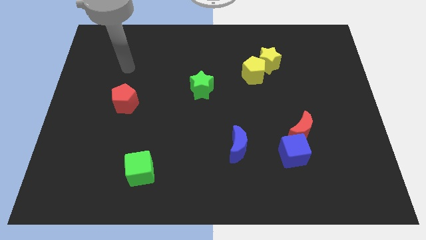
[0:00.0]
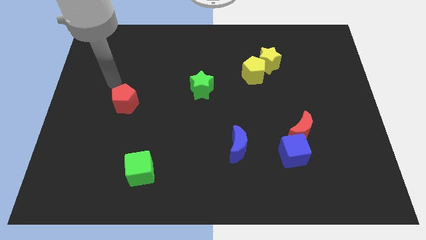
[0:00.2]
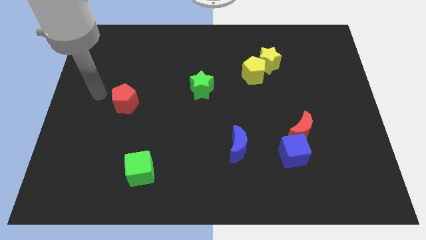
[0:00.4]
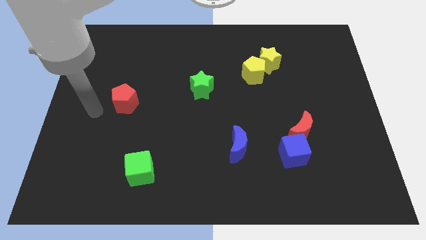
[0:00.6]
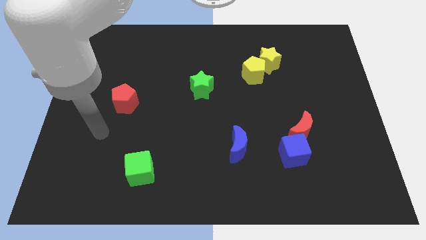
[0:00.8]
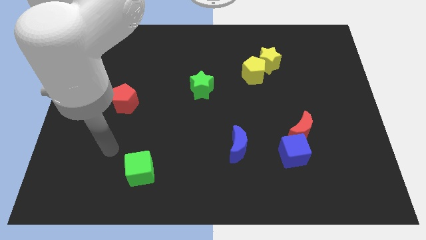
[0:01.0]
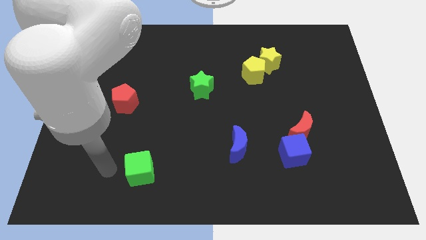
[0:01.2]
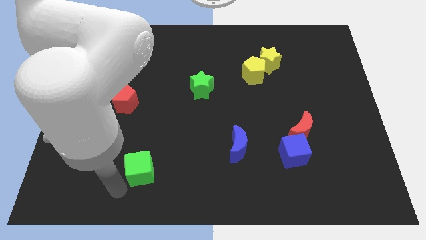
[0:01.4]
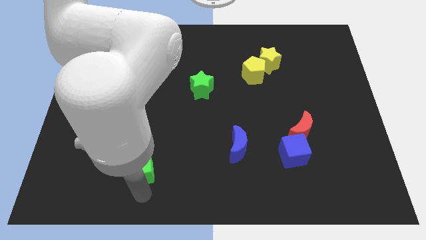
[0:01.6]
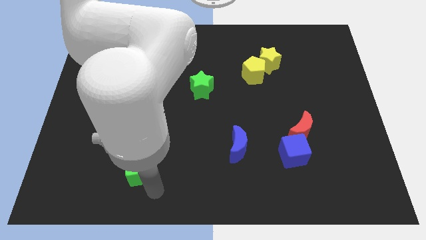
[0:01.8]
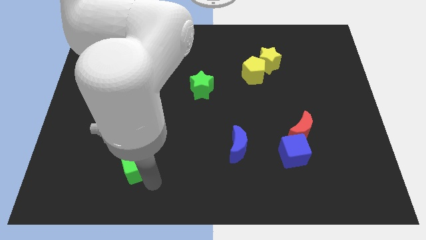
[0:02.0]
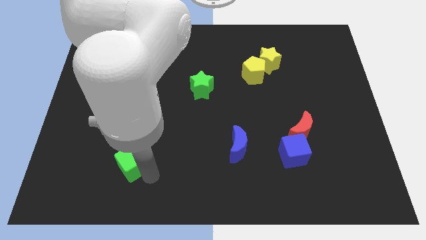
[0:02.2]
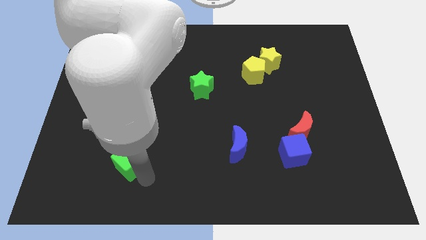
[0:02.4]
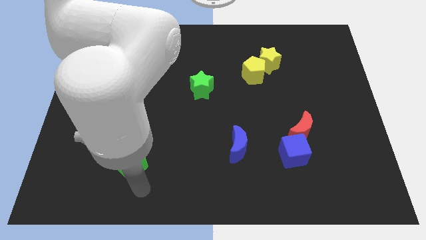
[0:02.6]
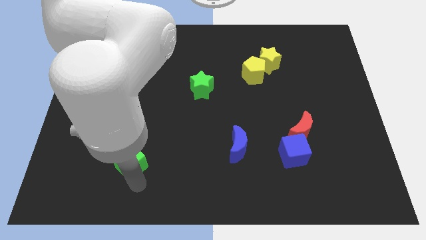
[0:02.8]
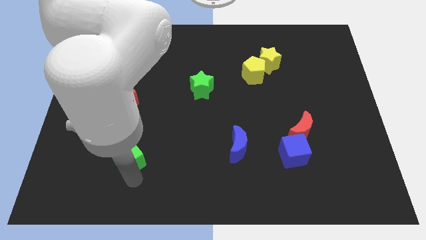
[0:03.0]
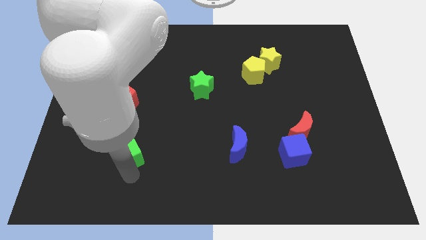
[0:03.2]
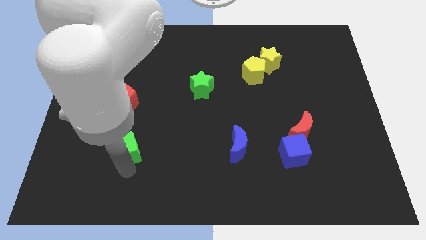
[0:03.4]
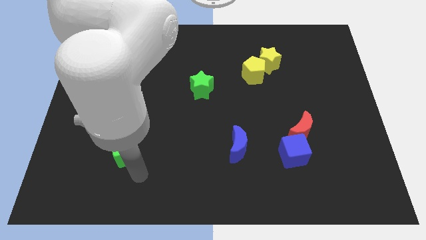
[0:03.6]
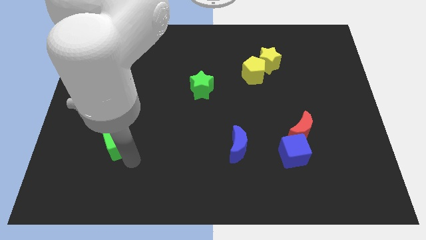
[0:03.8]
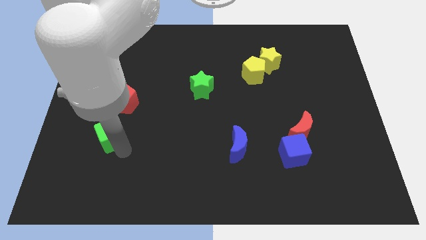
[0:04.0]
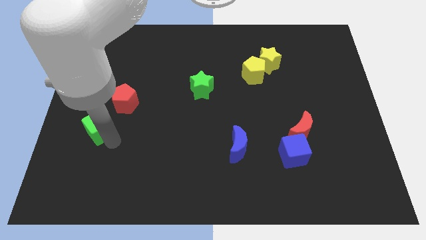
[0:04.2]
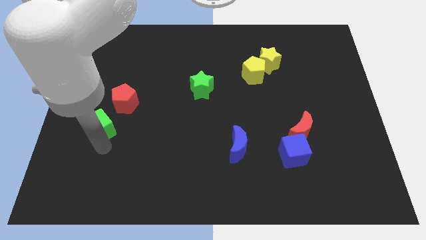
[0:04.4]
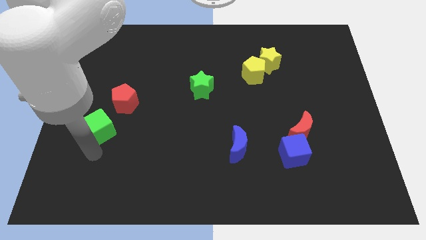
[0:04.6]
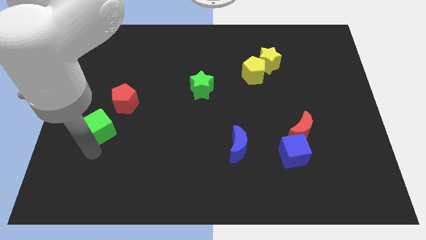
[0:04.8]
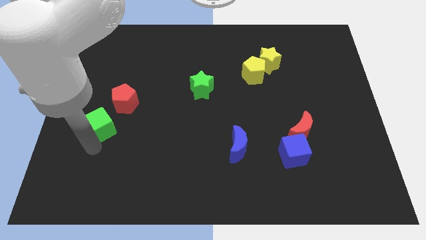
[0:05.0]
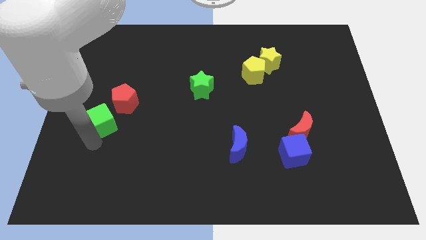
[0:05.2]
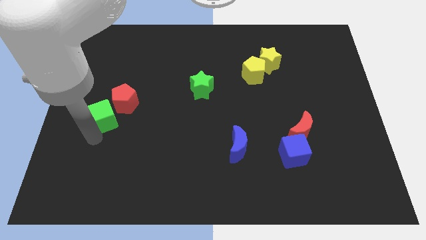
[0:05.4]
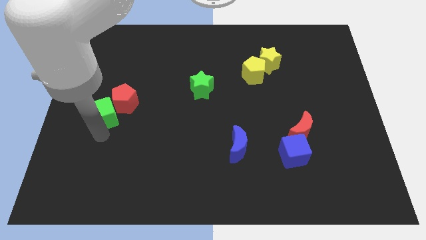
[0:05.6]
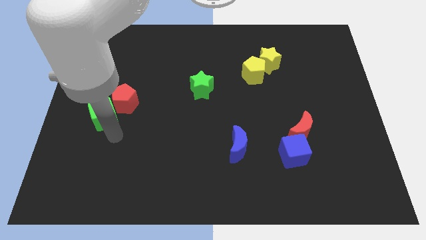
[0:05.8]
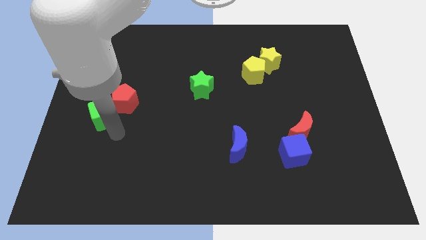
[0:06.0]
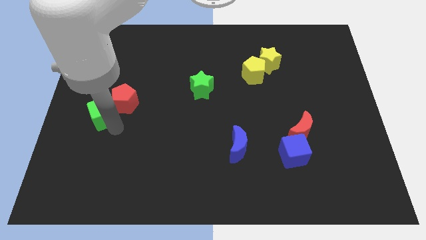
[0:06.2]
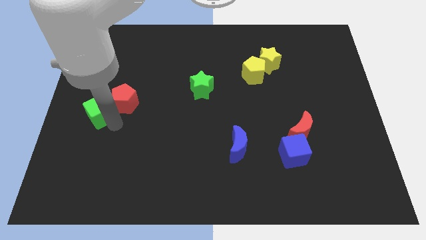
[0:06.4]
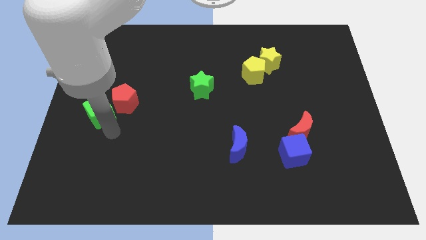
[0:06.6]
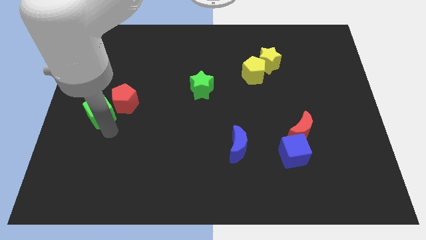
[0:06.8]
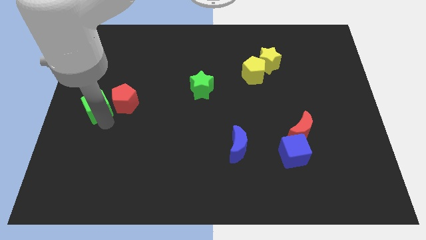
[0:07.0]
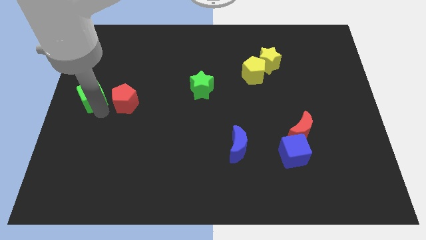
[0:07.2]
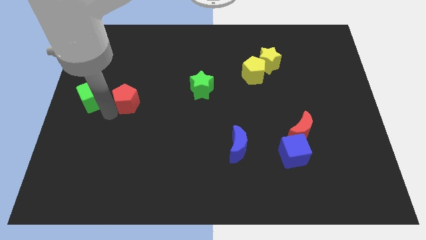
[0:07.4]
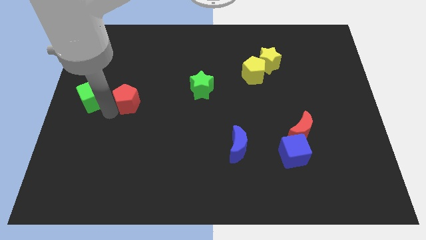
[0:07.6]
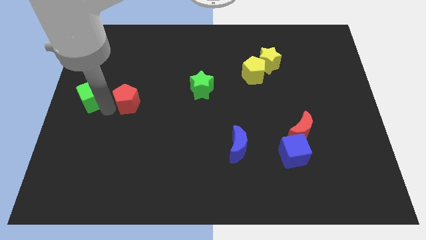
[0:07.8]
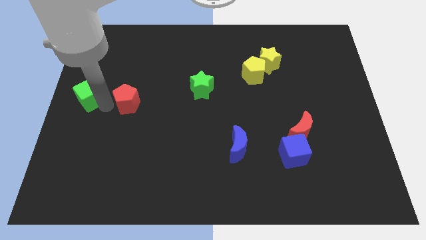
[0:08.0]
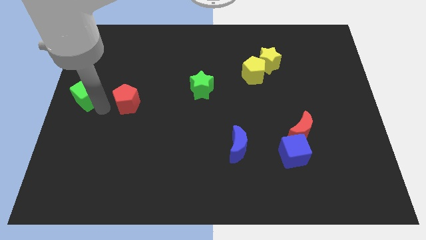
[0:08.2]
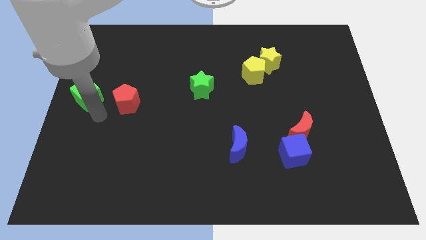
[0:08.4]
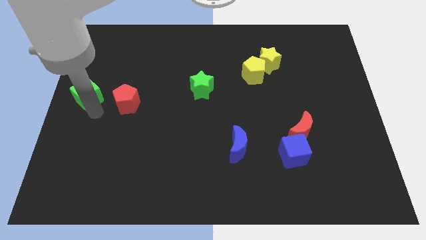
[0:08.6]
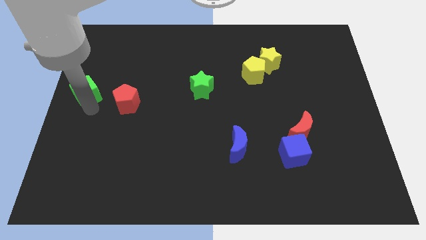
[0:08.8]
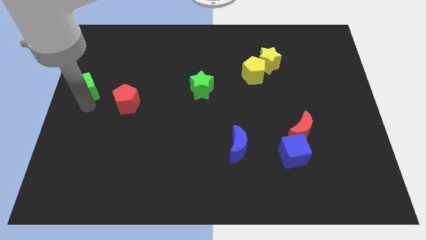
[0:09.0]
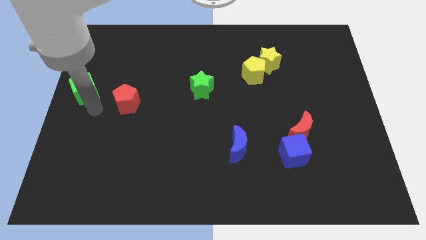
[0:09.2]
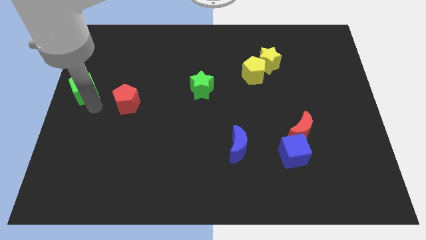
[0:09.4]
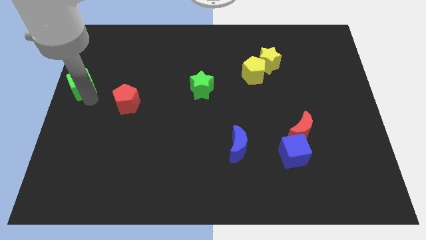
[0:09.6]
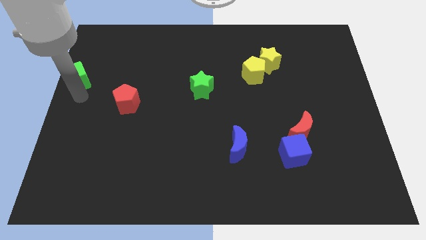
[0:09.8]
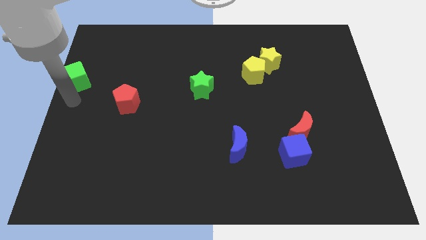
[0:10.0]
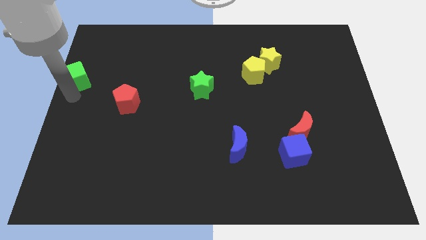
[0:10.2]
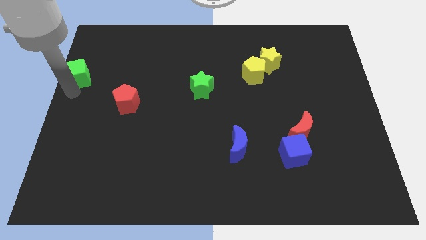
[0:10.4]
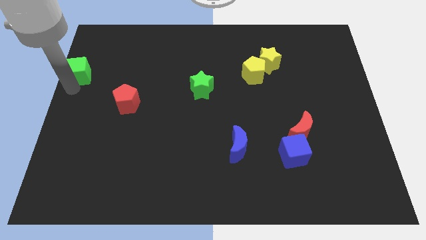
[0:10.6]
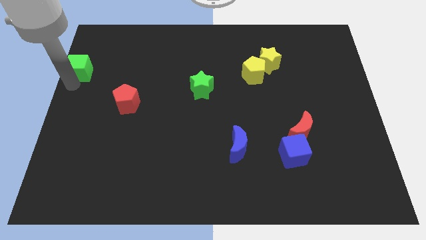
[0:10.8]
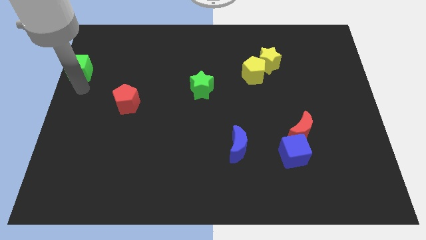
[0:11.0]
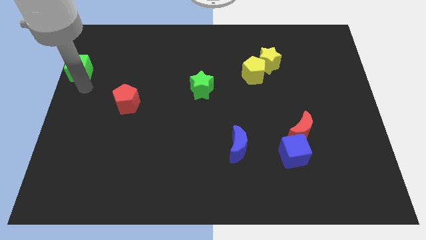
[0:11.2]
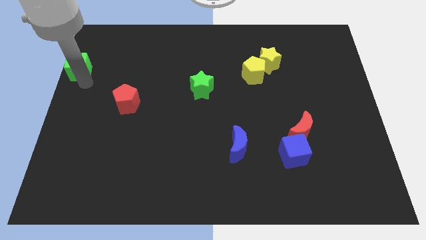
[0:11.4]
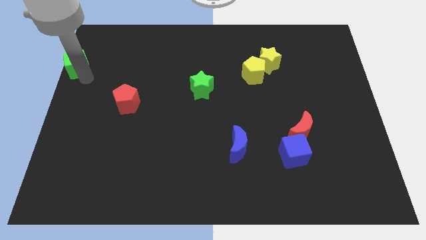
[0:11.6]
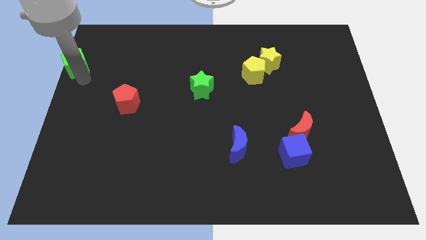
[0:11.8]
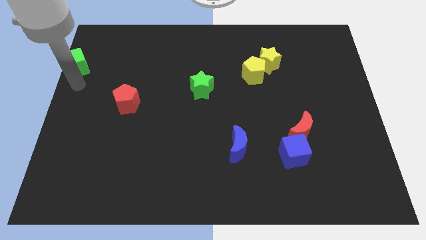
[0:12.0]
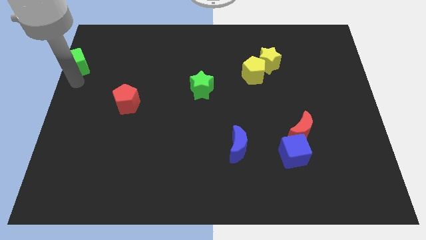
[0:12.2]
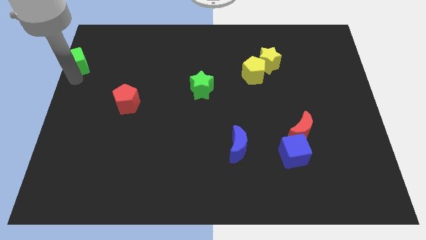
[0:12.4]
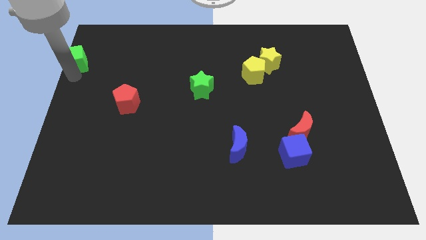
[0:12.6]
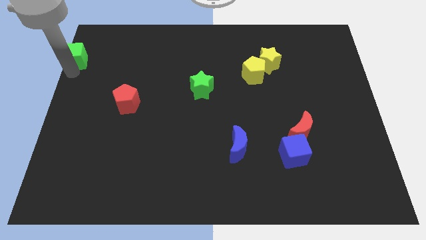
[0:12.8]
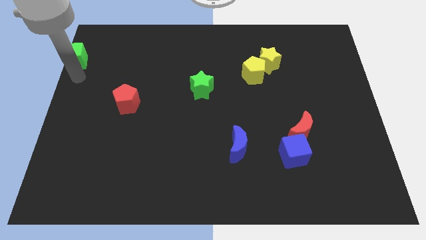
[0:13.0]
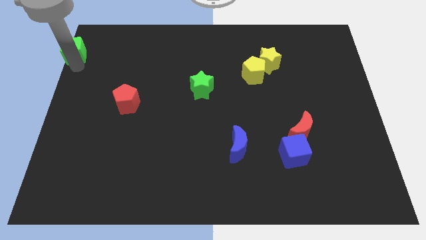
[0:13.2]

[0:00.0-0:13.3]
put the green cube to the upper left corner
